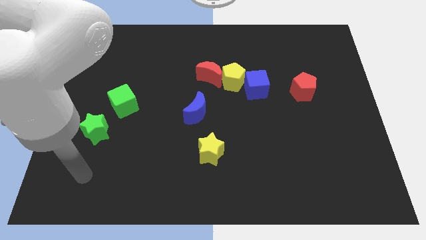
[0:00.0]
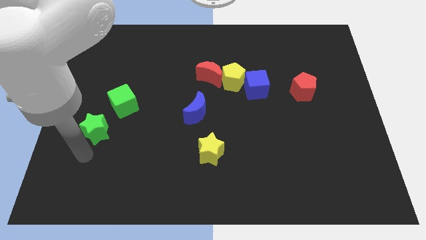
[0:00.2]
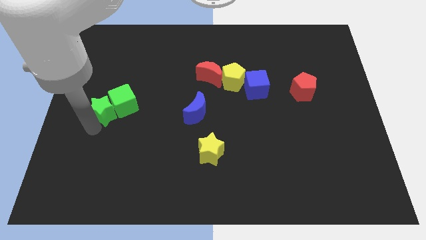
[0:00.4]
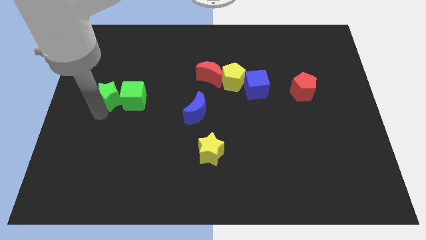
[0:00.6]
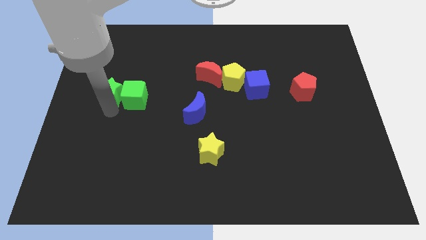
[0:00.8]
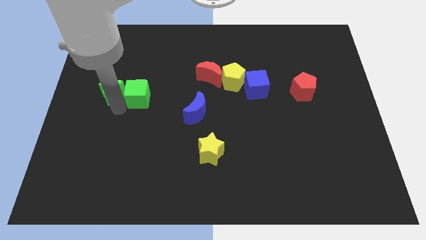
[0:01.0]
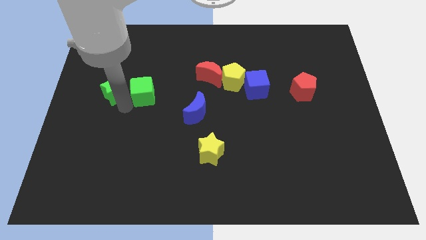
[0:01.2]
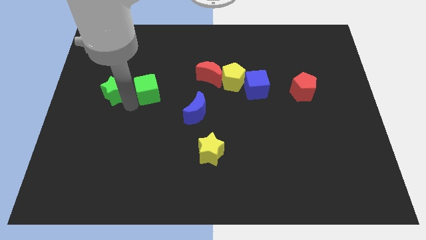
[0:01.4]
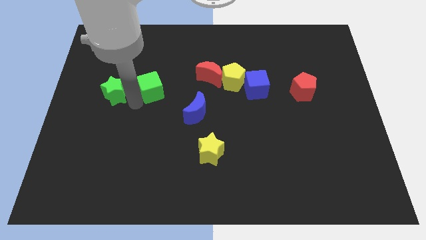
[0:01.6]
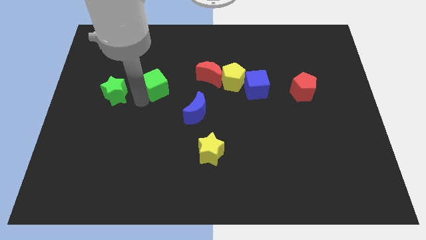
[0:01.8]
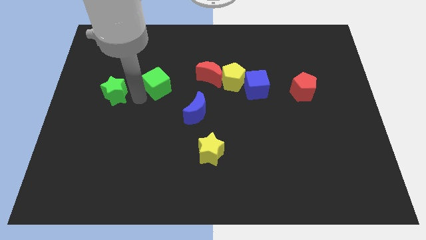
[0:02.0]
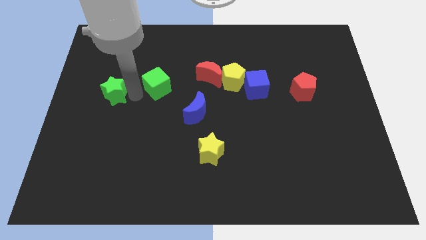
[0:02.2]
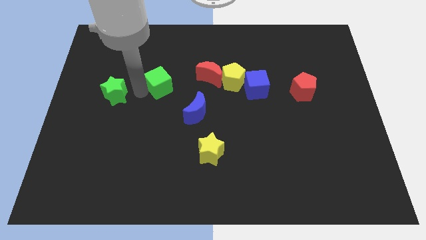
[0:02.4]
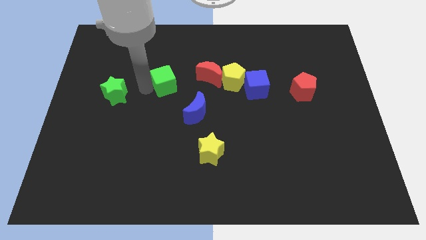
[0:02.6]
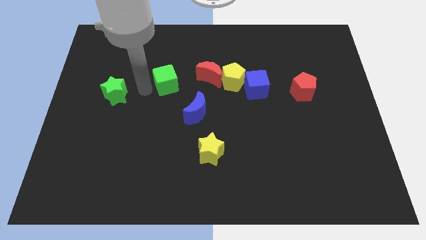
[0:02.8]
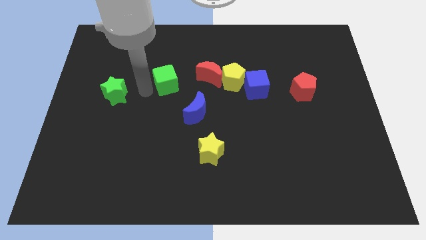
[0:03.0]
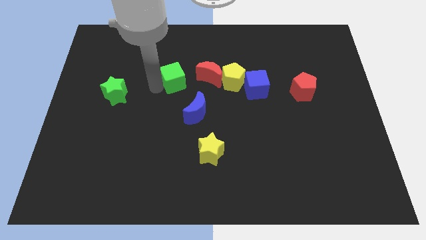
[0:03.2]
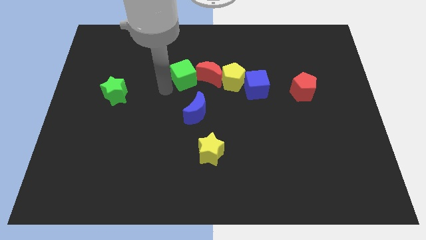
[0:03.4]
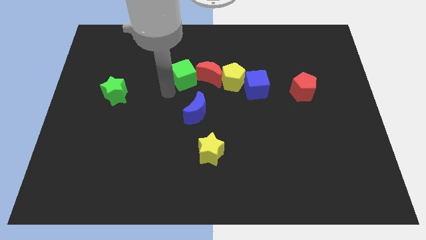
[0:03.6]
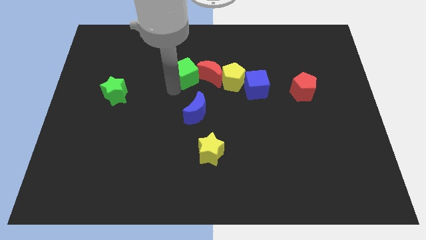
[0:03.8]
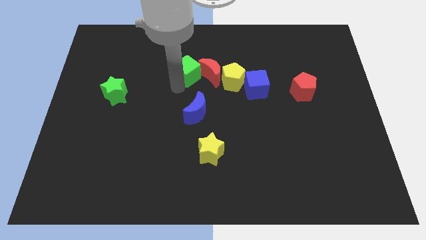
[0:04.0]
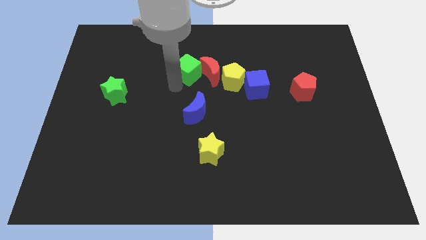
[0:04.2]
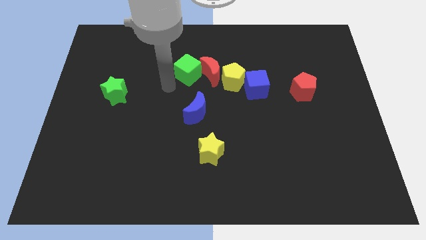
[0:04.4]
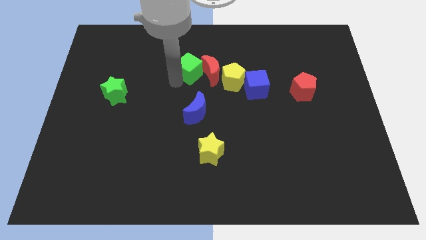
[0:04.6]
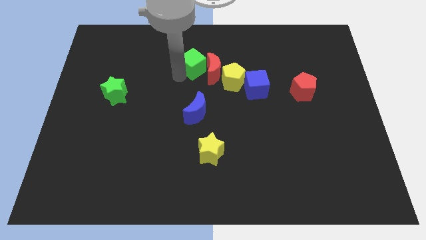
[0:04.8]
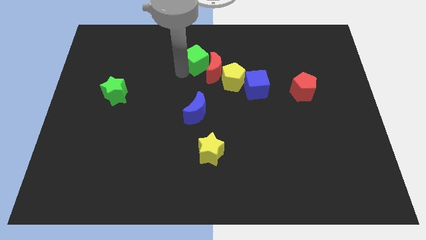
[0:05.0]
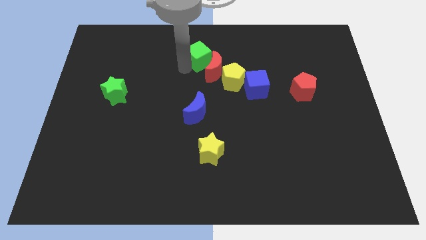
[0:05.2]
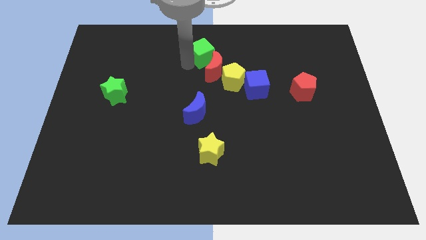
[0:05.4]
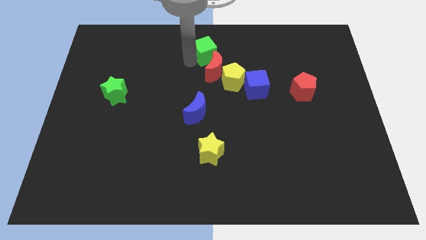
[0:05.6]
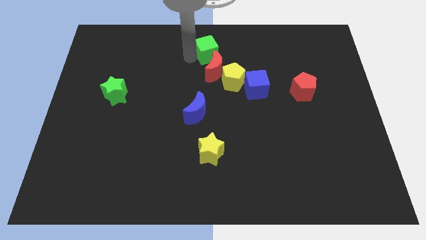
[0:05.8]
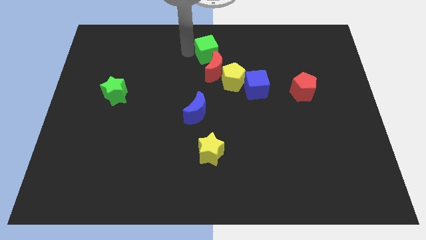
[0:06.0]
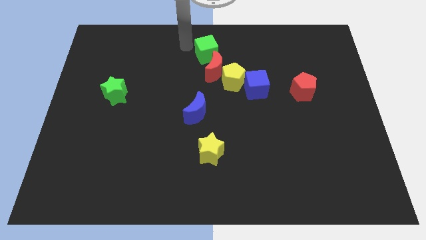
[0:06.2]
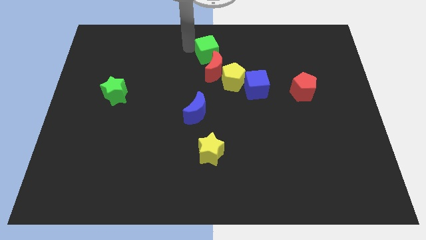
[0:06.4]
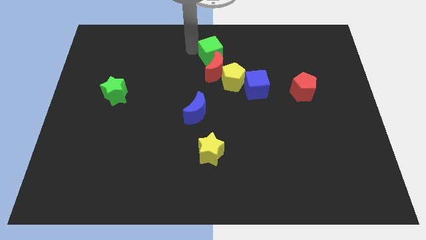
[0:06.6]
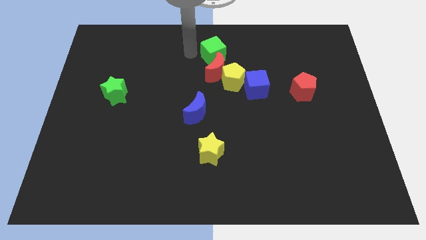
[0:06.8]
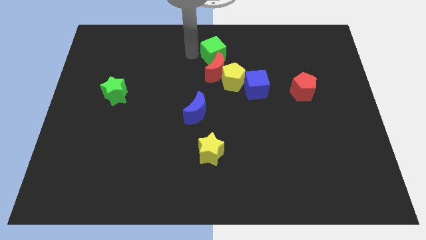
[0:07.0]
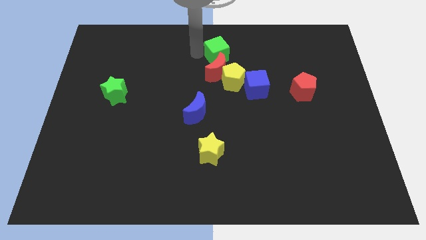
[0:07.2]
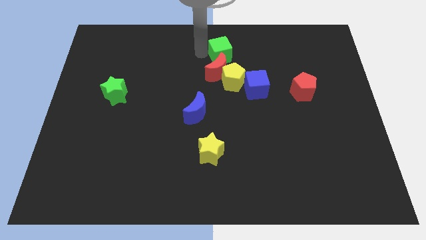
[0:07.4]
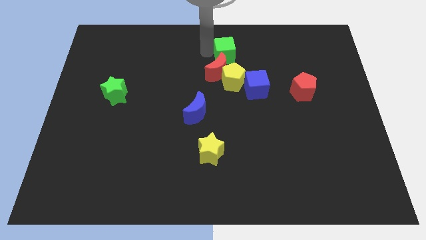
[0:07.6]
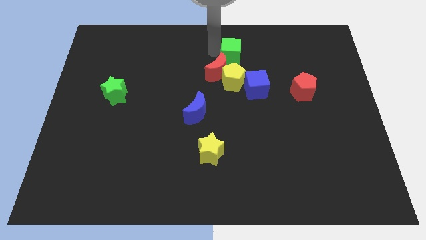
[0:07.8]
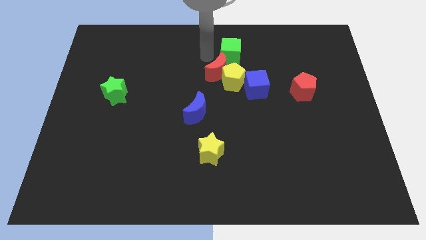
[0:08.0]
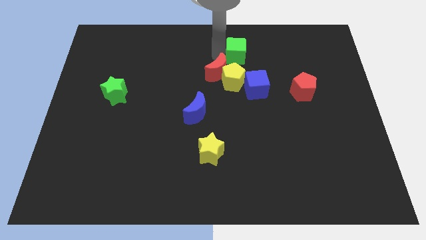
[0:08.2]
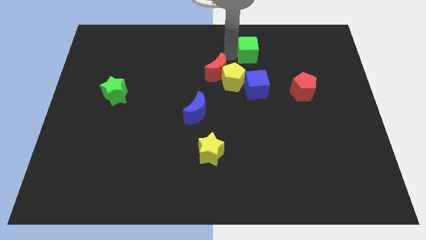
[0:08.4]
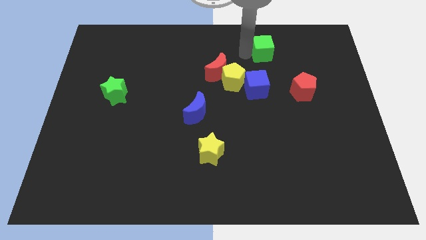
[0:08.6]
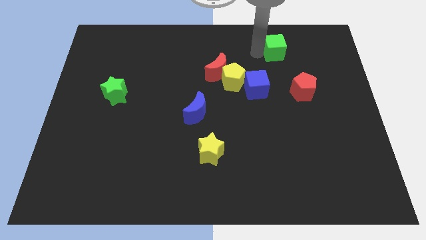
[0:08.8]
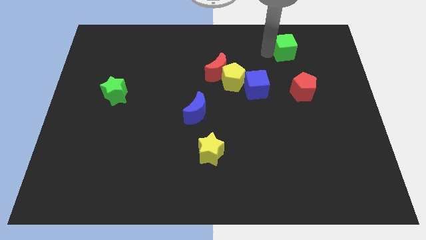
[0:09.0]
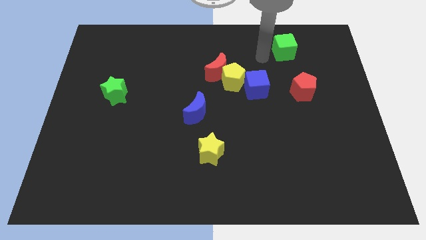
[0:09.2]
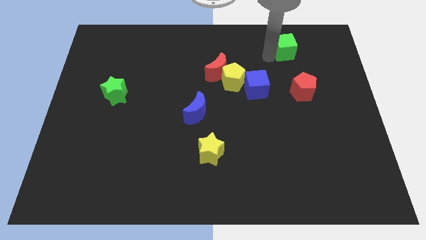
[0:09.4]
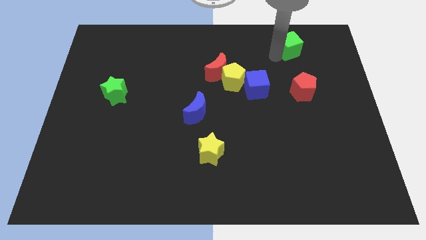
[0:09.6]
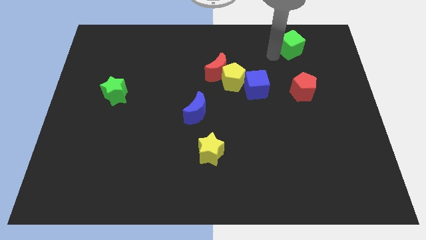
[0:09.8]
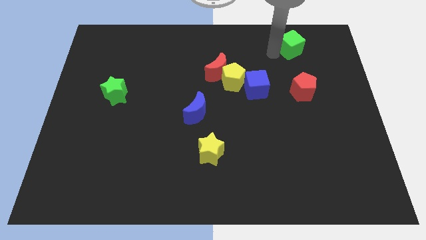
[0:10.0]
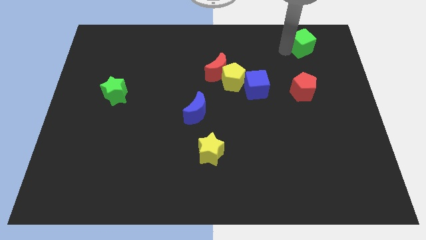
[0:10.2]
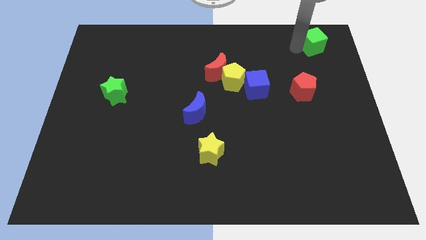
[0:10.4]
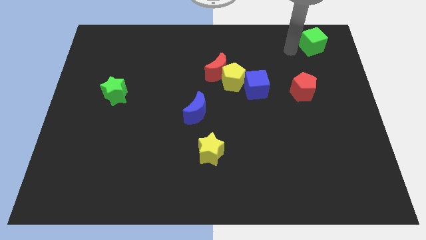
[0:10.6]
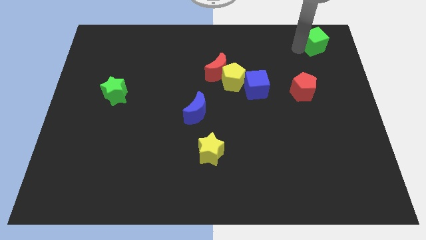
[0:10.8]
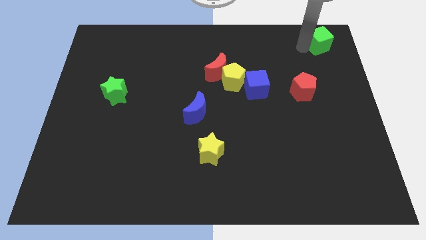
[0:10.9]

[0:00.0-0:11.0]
slide the green cube to the top right corner

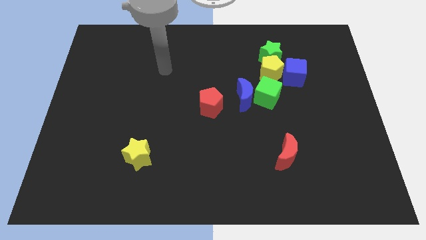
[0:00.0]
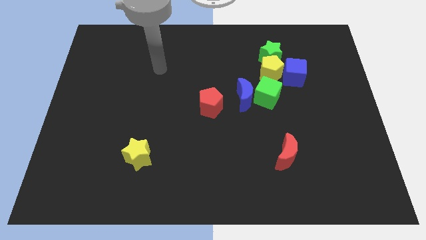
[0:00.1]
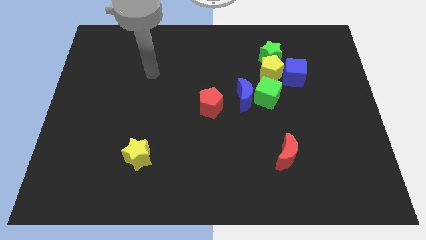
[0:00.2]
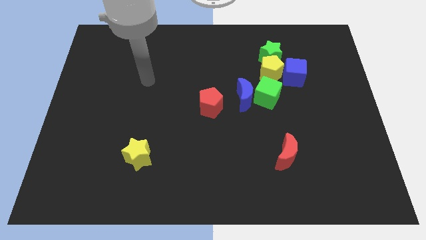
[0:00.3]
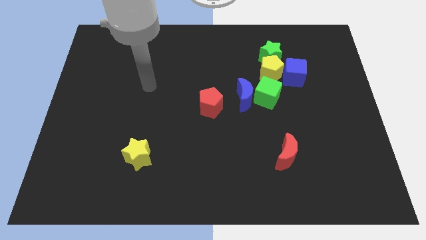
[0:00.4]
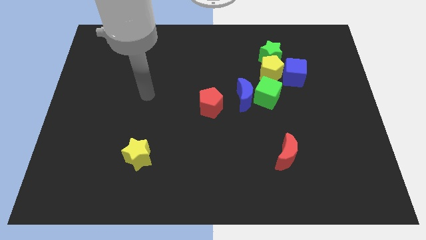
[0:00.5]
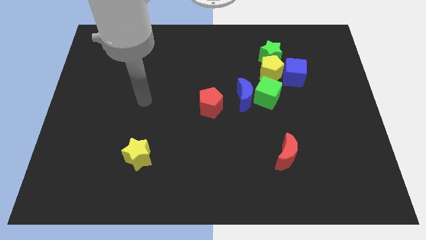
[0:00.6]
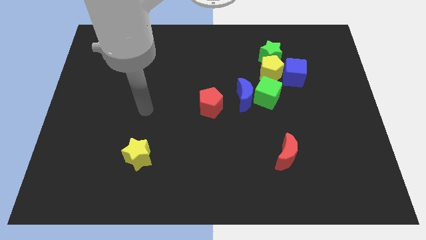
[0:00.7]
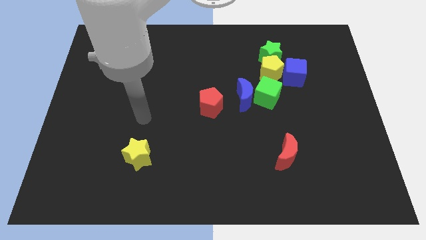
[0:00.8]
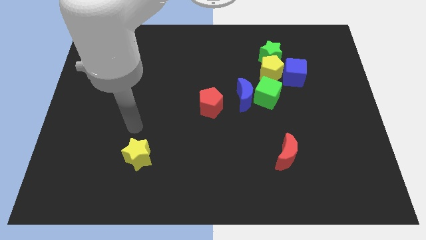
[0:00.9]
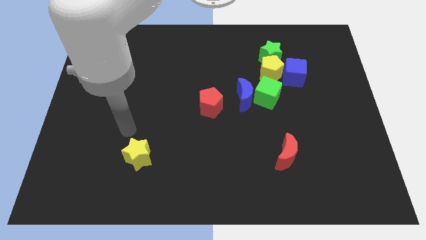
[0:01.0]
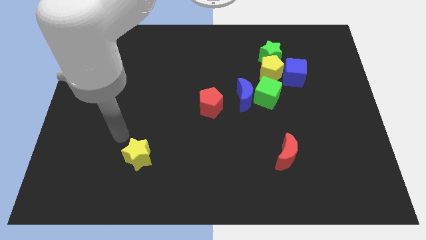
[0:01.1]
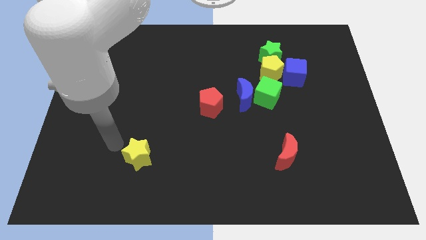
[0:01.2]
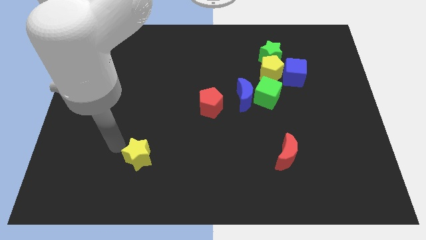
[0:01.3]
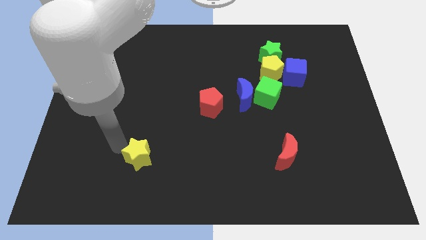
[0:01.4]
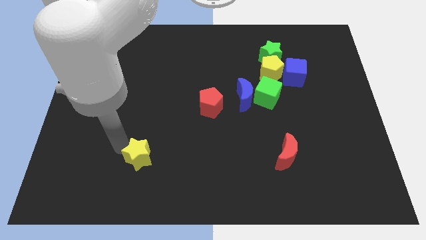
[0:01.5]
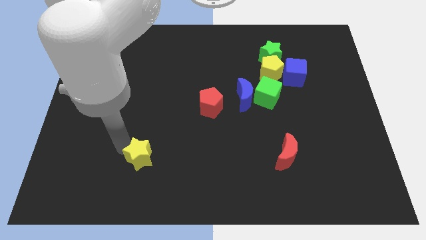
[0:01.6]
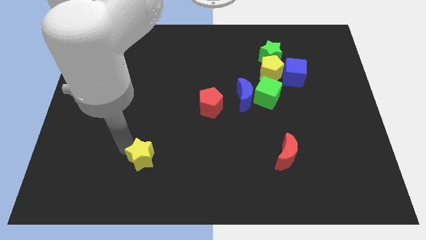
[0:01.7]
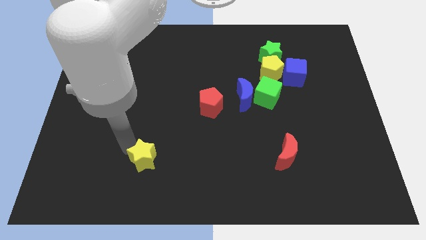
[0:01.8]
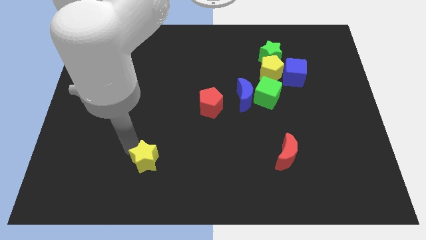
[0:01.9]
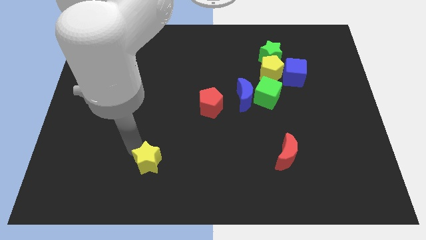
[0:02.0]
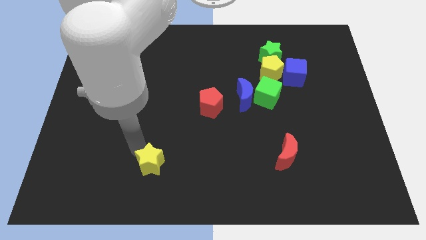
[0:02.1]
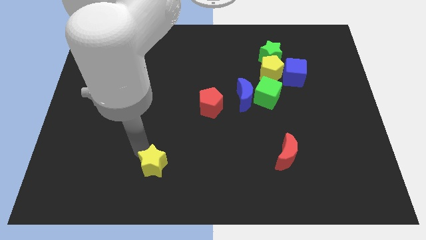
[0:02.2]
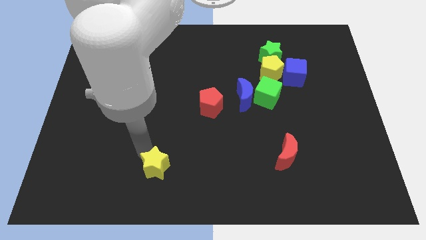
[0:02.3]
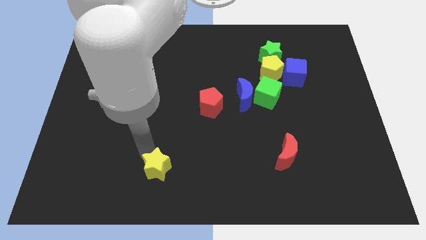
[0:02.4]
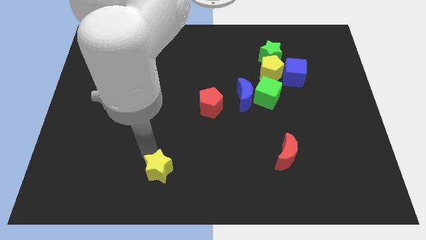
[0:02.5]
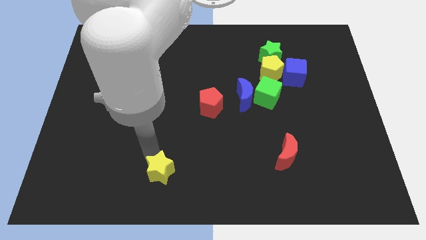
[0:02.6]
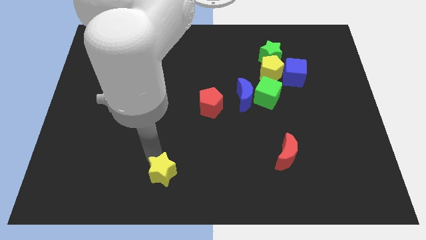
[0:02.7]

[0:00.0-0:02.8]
move the yellow star to the bottom
